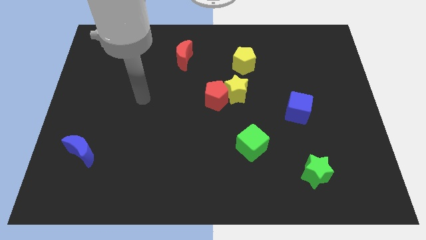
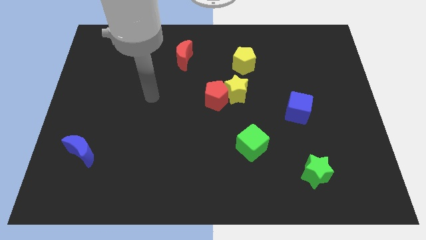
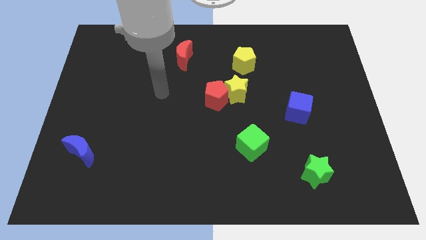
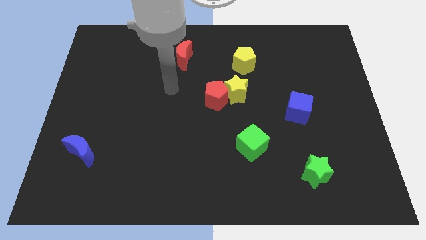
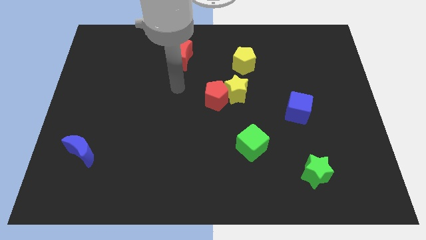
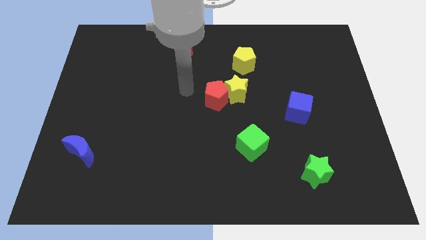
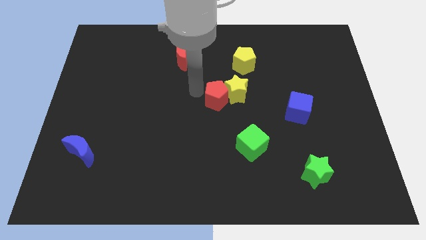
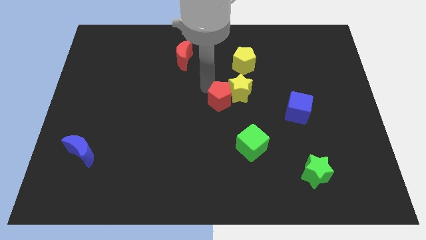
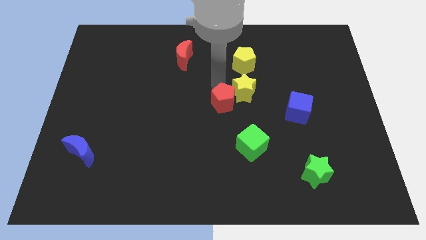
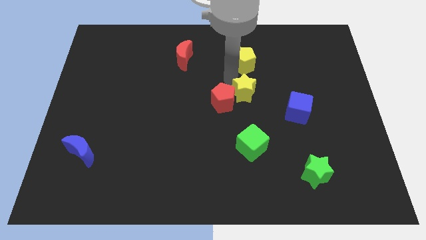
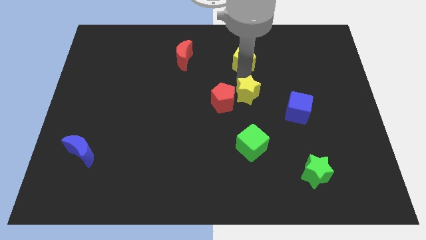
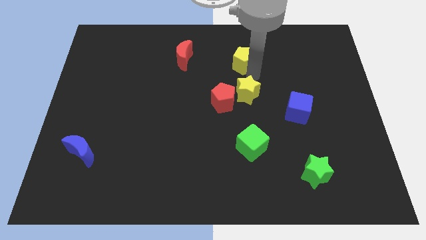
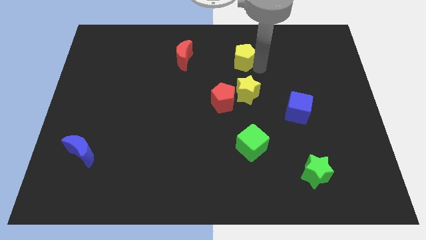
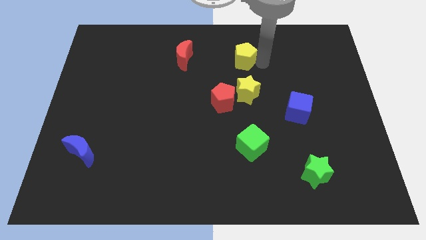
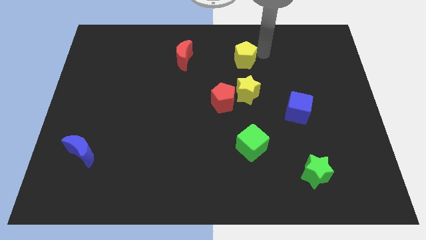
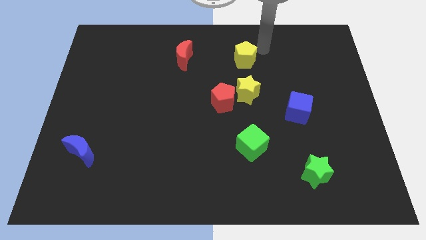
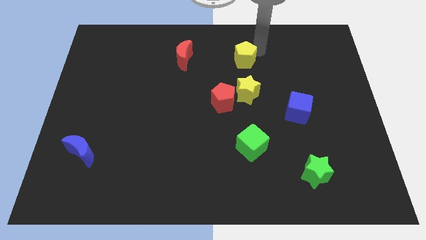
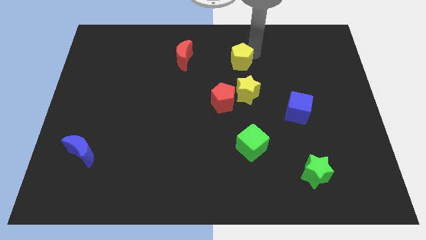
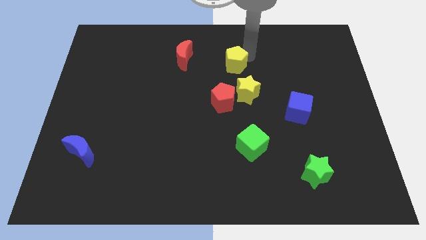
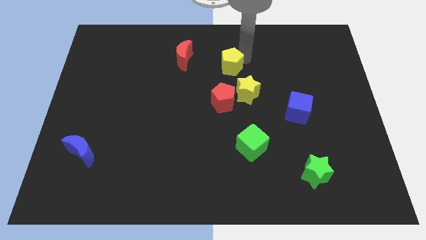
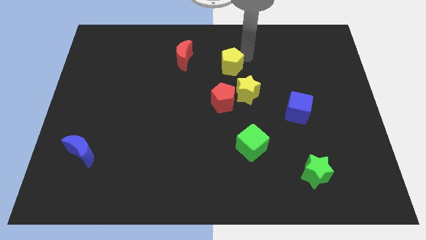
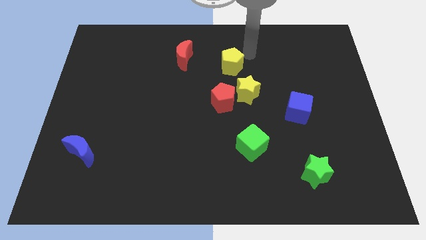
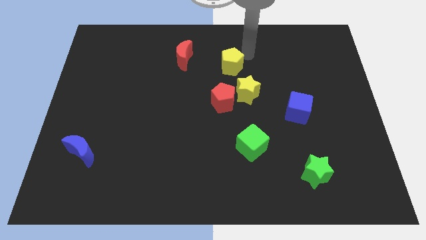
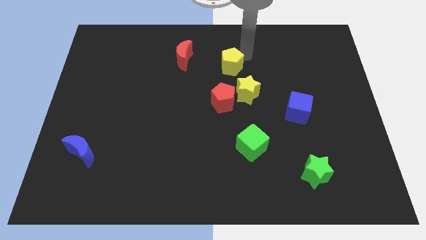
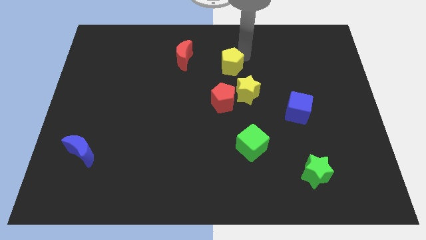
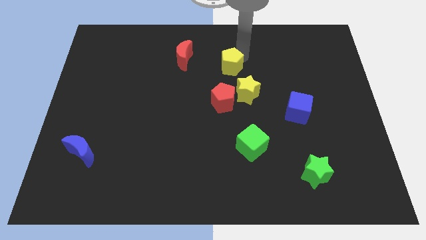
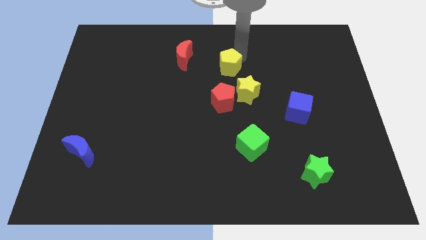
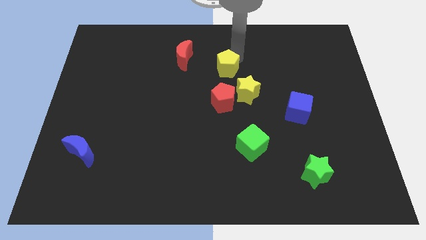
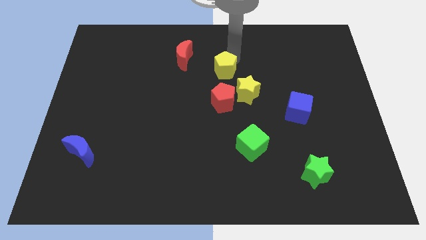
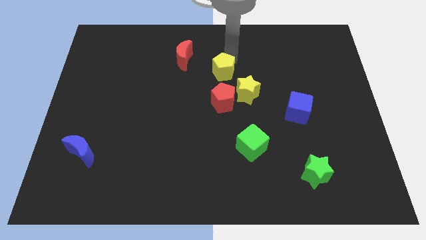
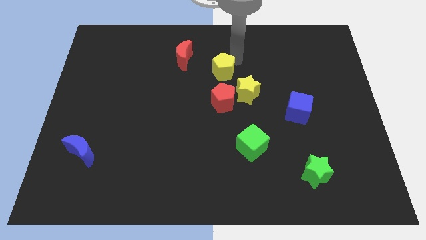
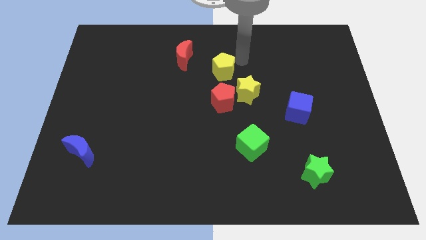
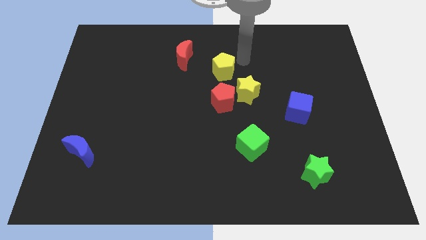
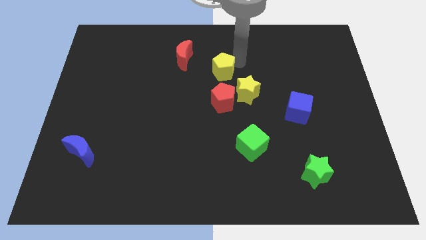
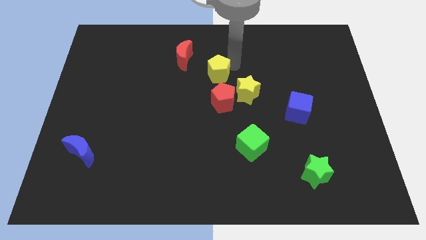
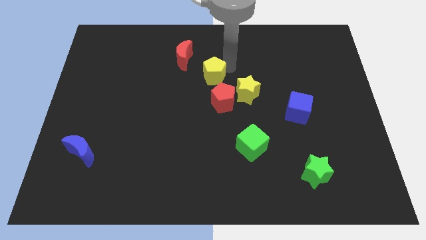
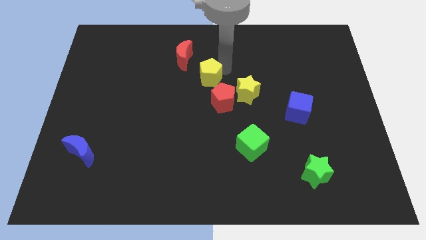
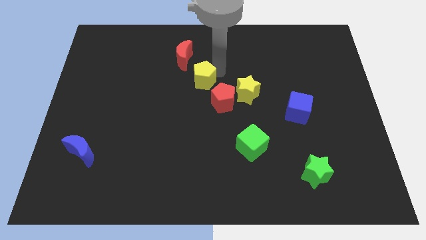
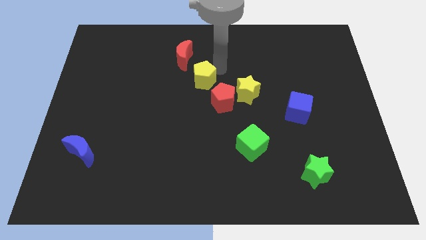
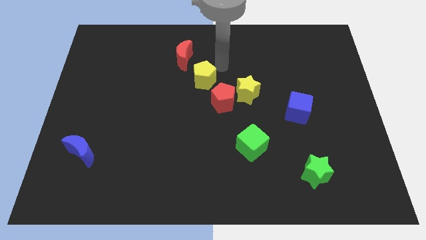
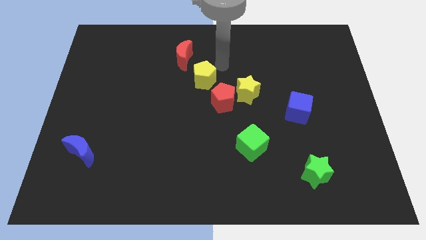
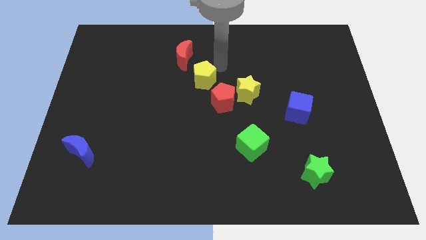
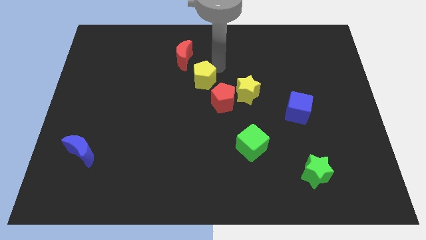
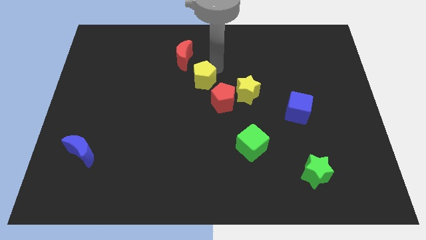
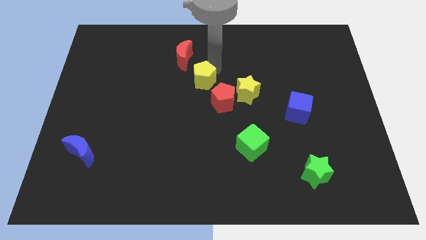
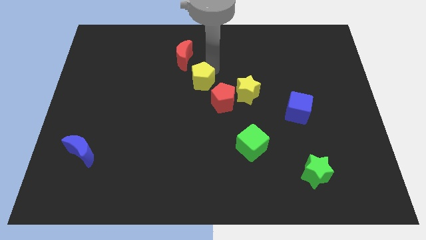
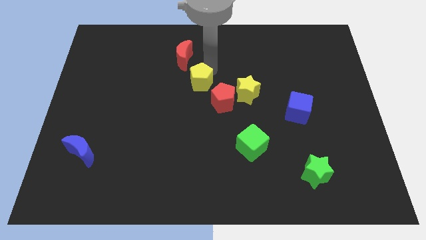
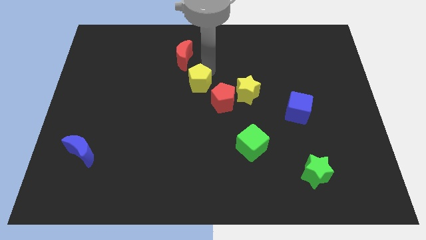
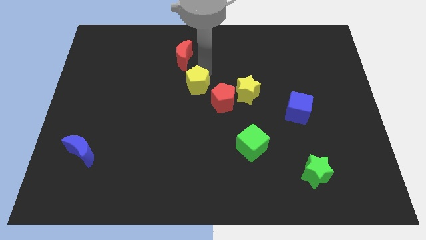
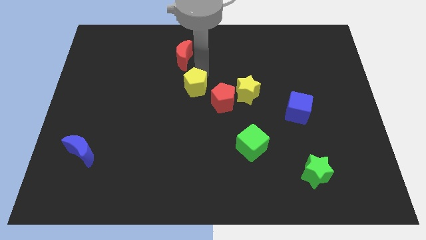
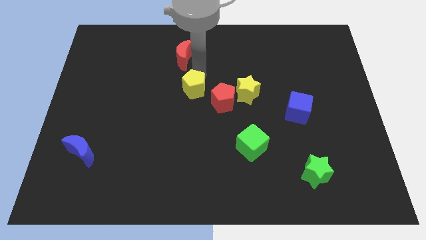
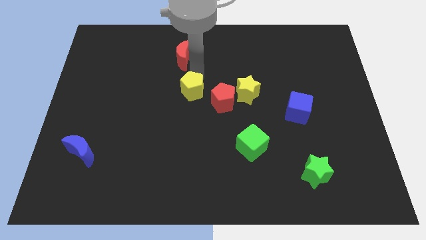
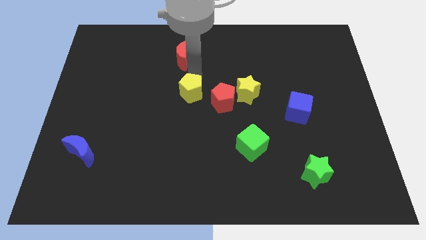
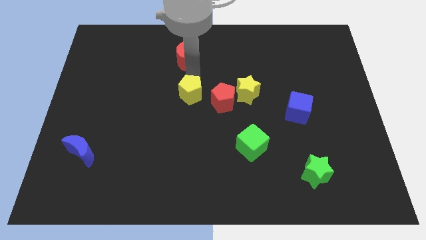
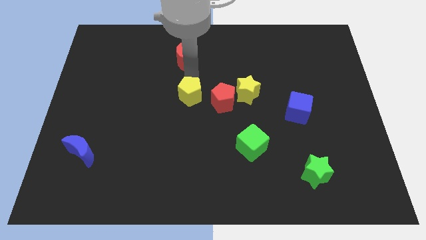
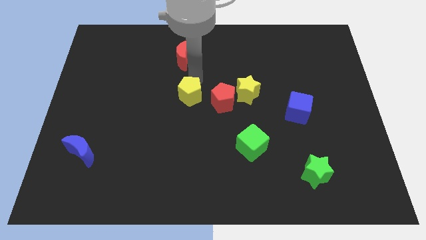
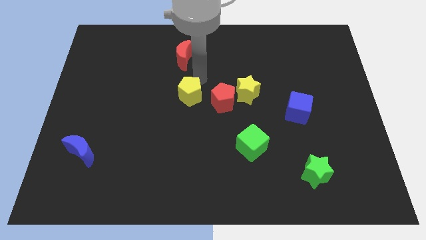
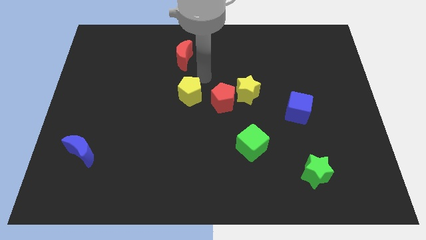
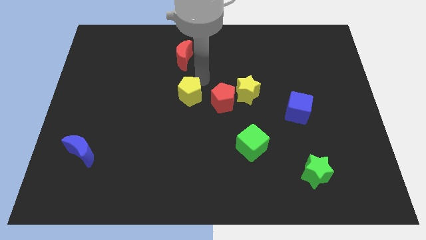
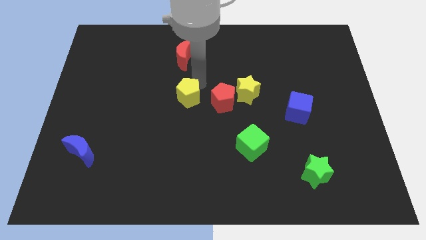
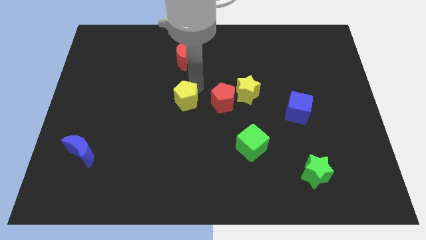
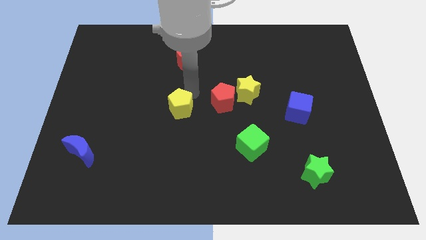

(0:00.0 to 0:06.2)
move the yellow pentagon down and to the left

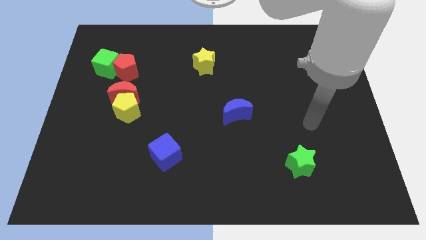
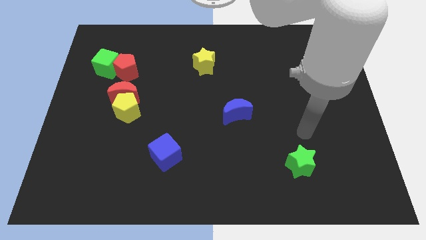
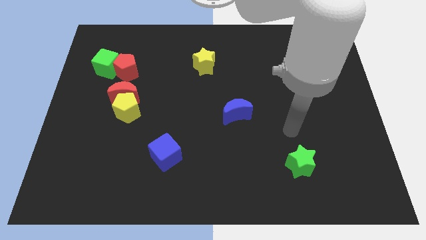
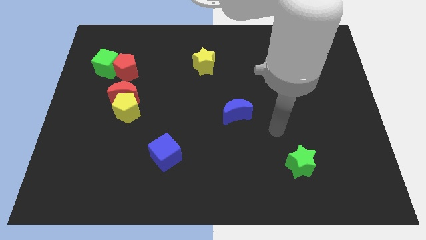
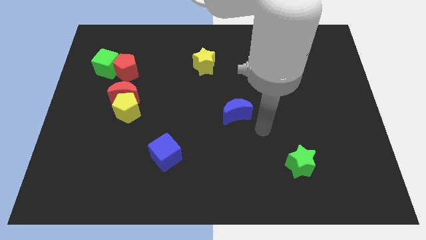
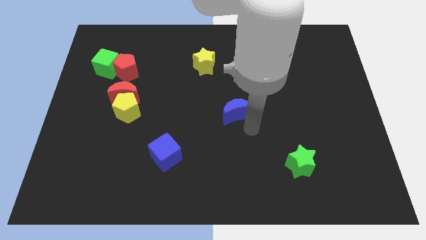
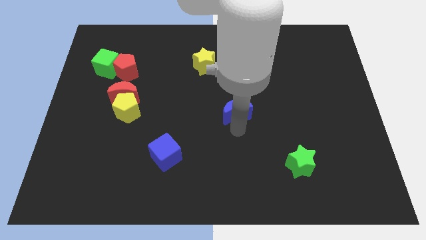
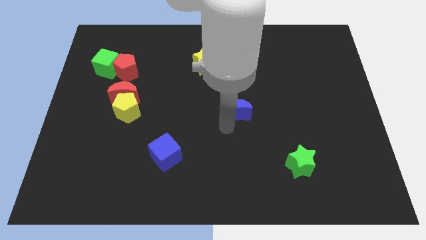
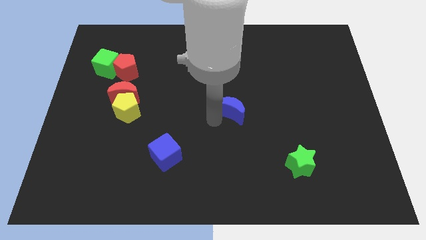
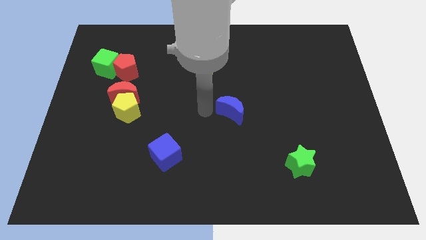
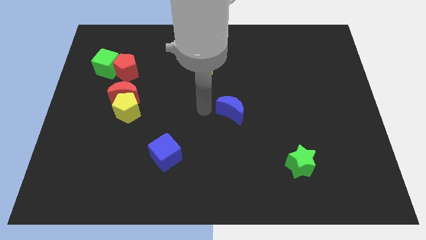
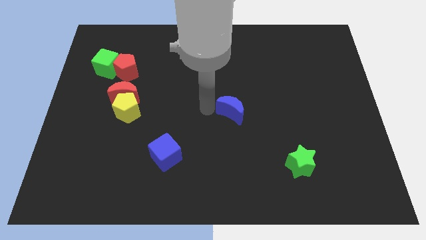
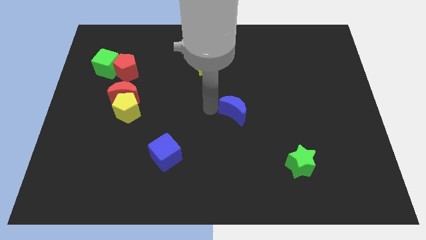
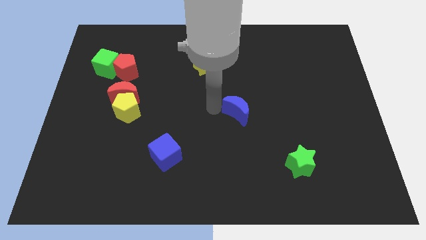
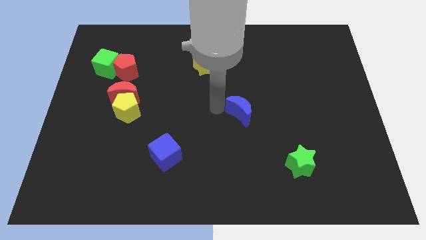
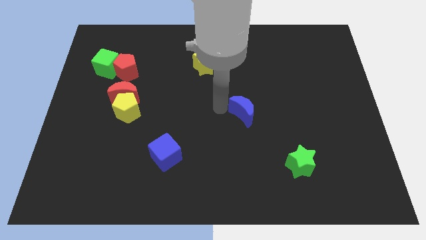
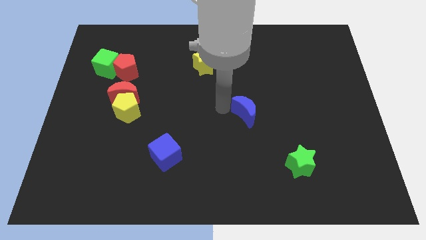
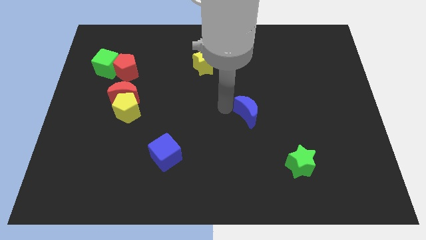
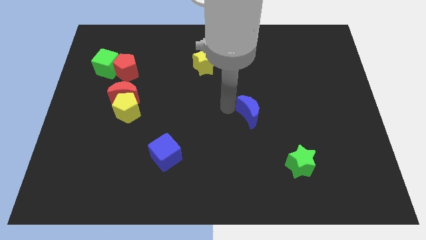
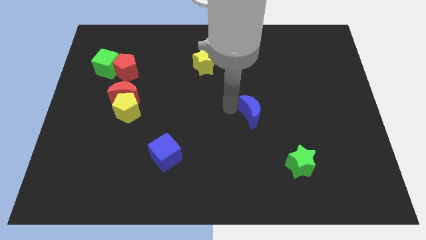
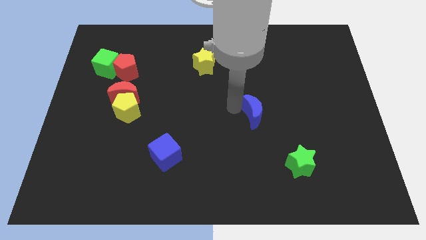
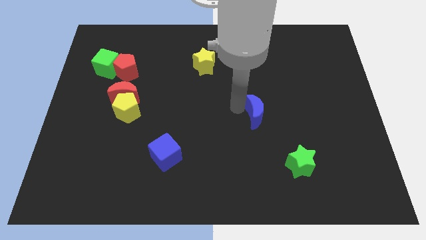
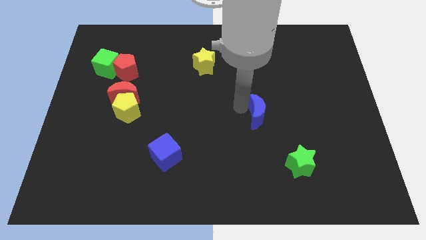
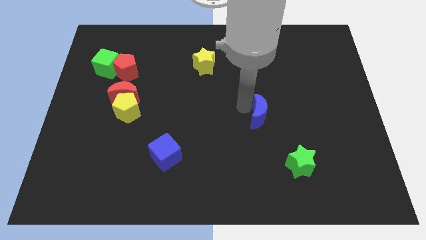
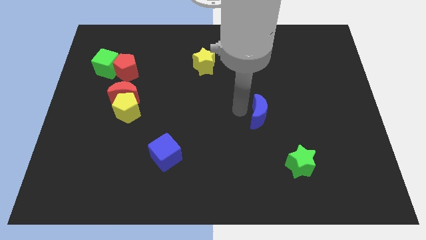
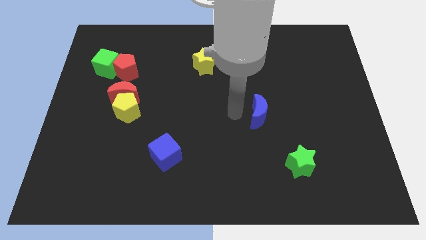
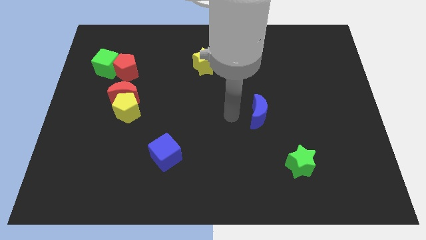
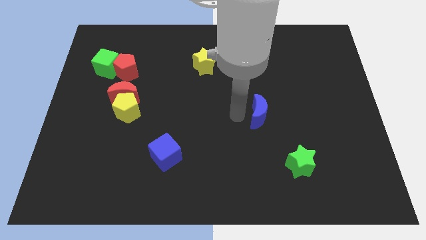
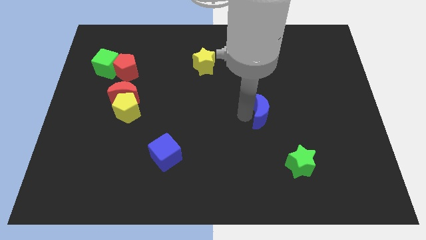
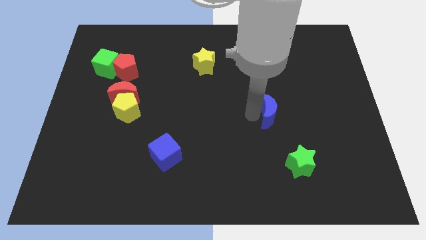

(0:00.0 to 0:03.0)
push the blue moon a little right
